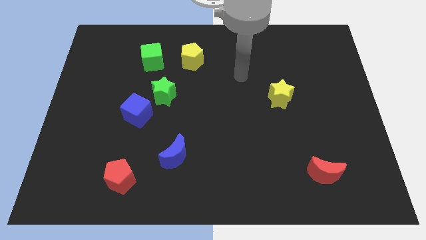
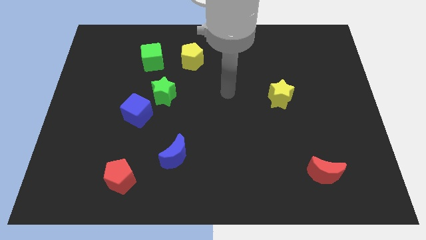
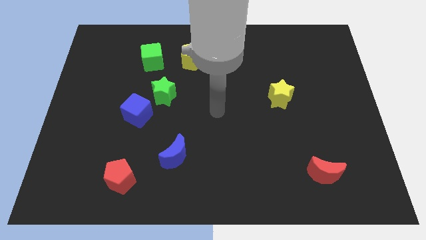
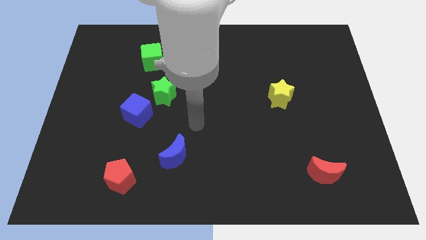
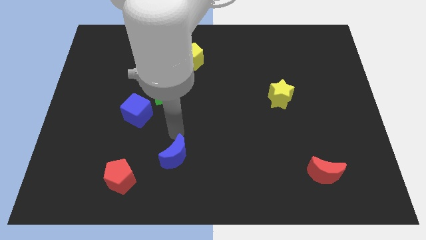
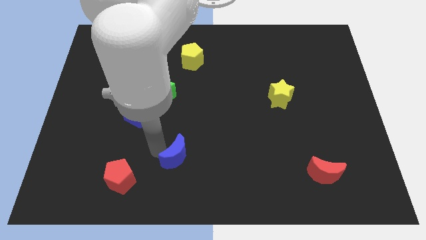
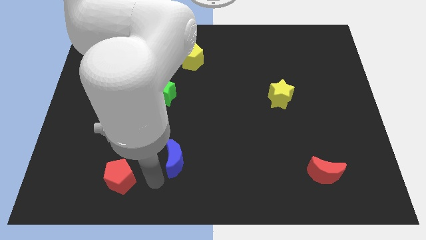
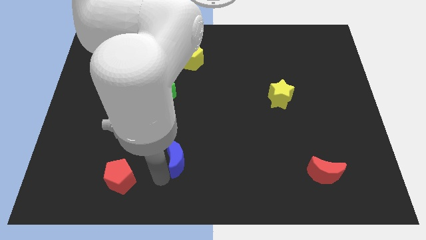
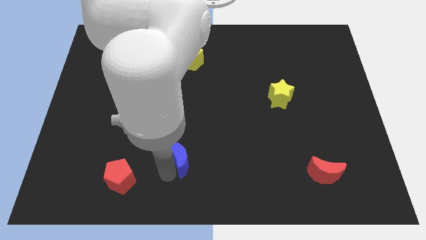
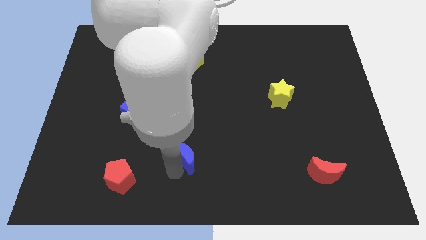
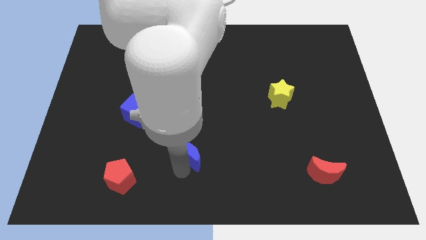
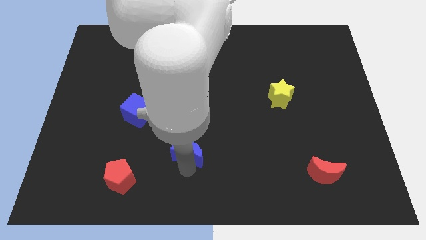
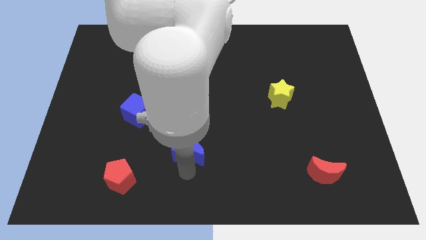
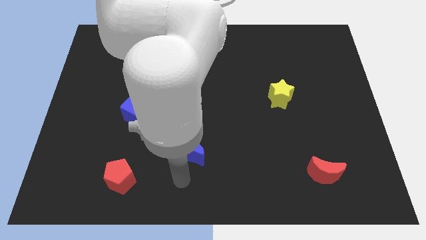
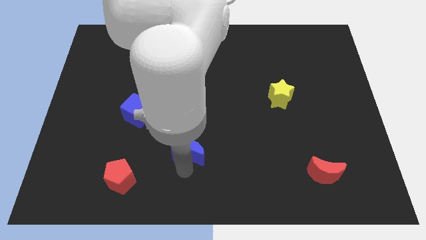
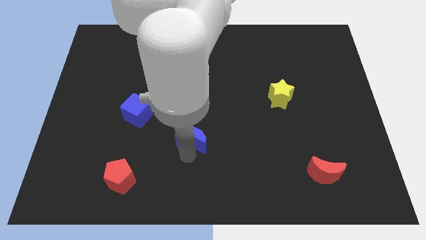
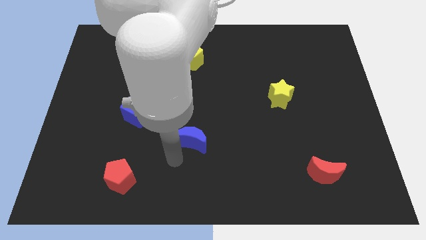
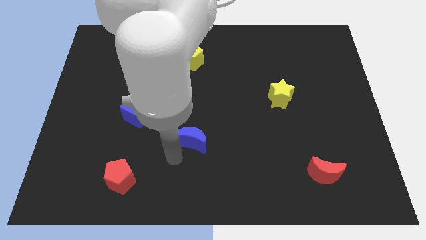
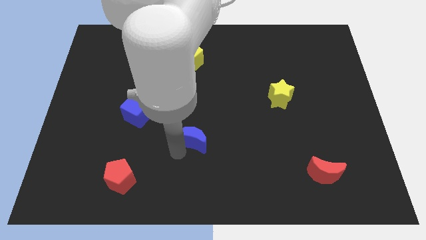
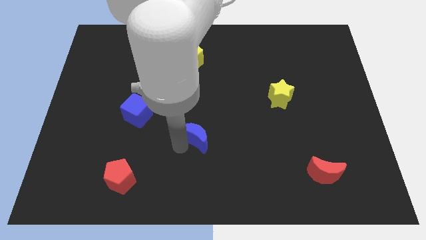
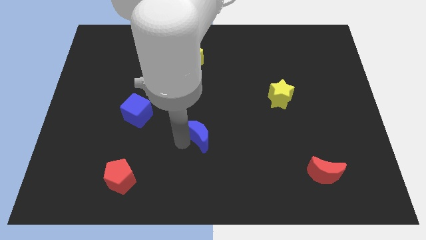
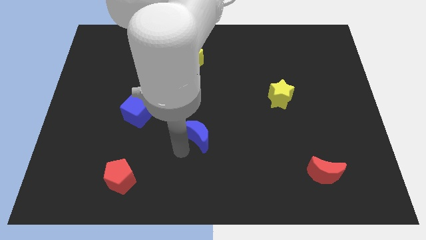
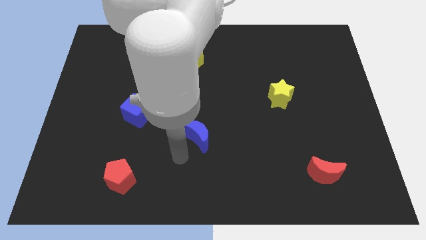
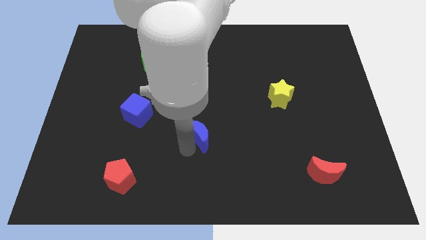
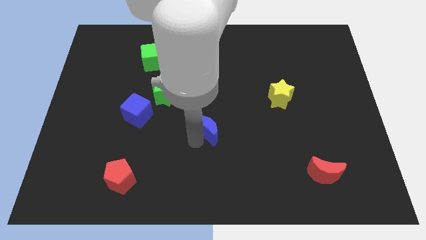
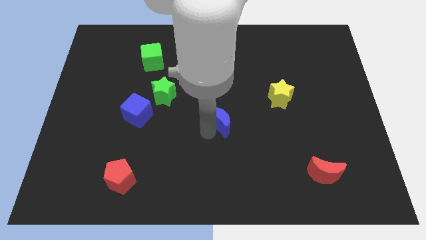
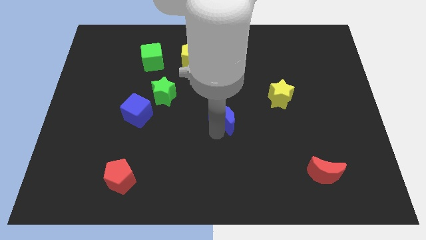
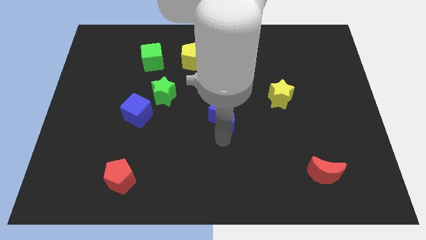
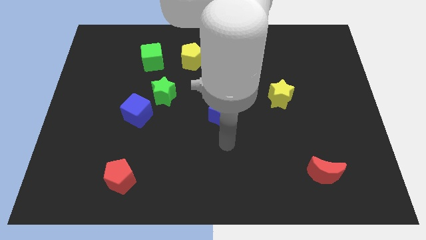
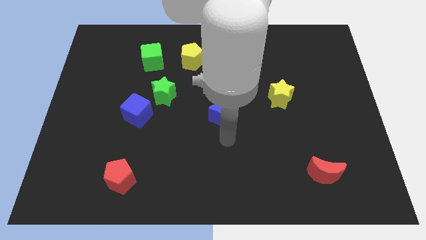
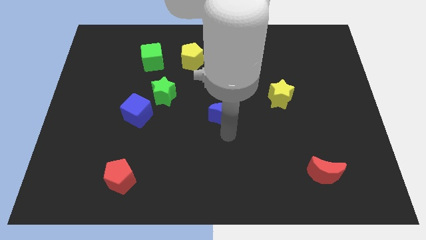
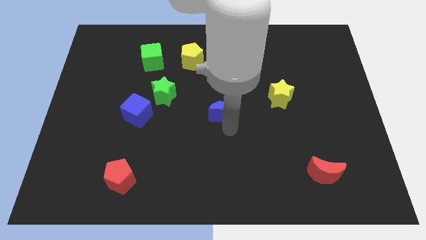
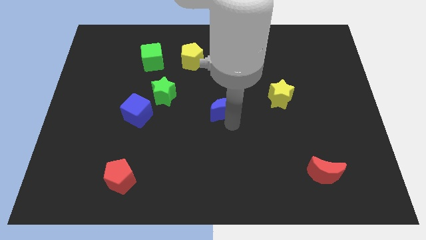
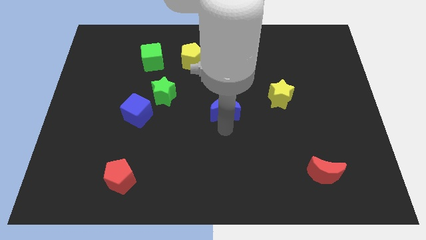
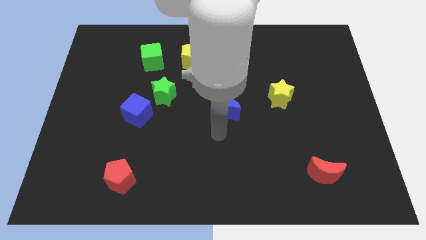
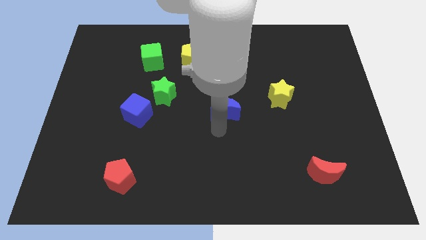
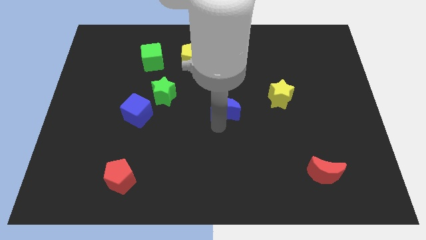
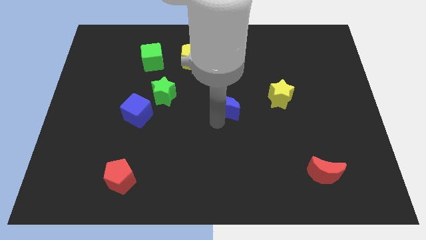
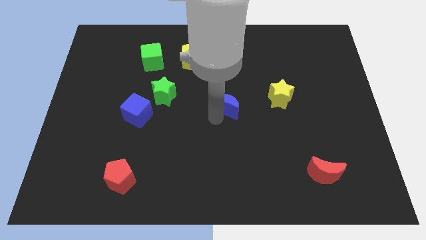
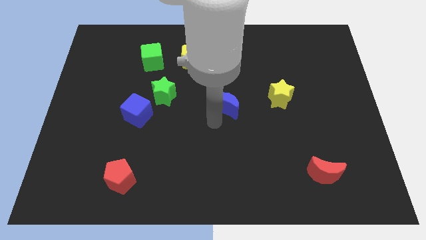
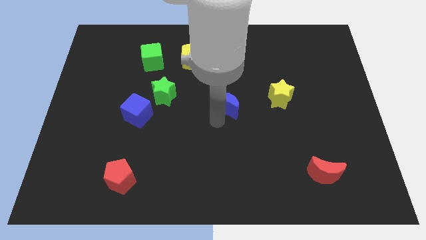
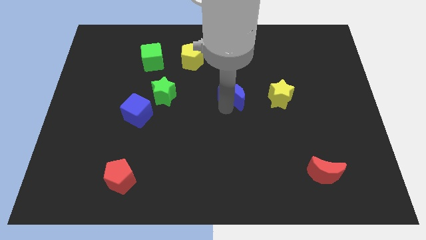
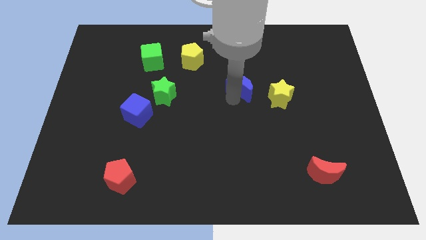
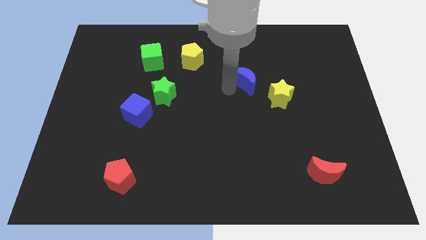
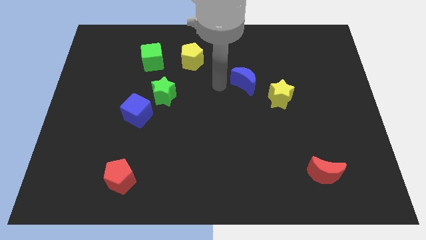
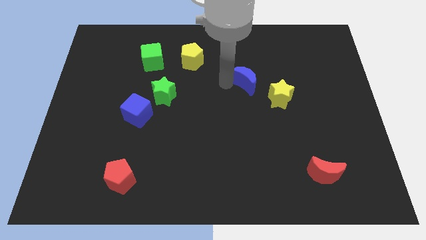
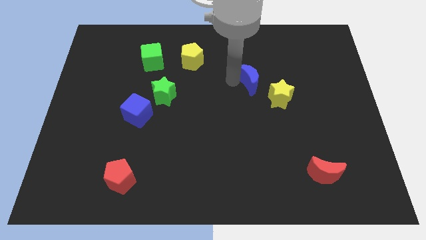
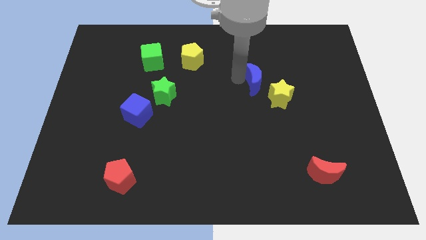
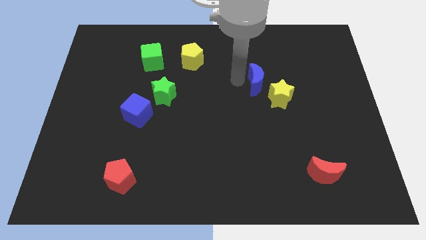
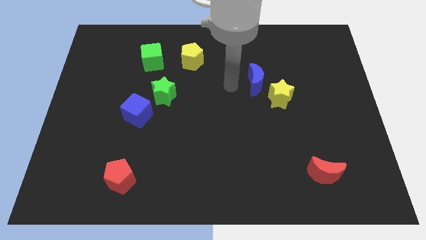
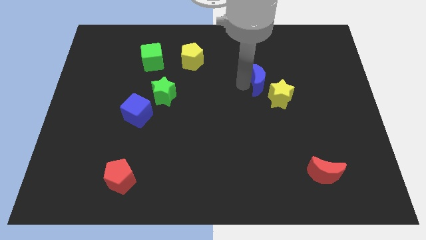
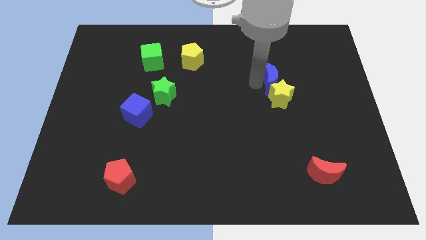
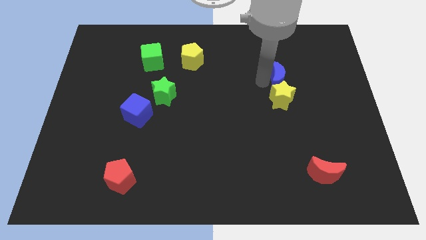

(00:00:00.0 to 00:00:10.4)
move the blue moon to the top right side of the yellow star

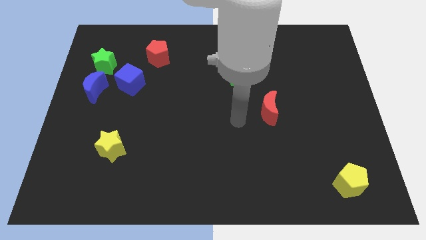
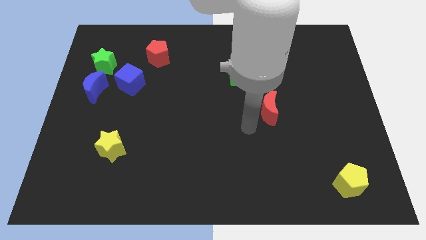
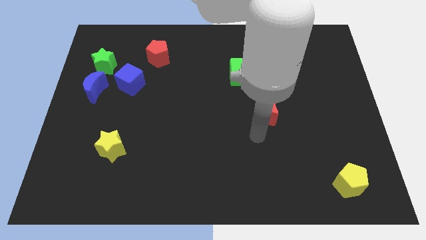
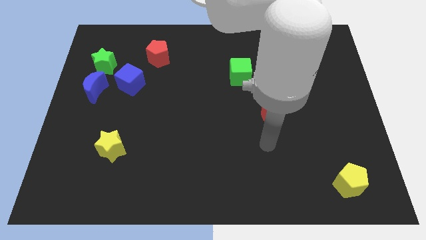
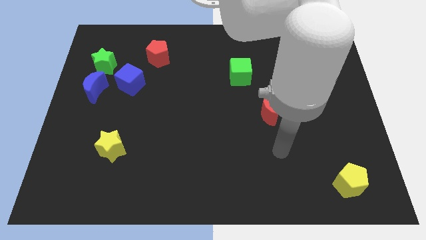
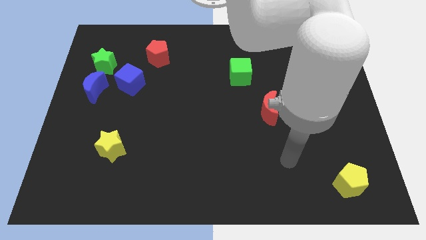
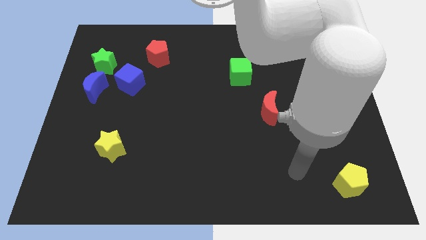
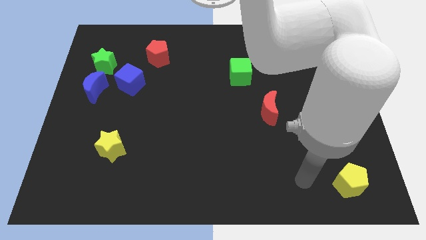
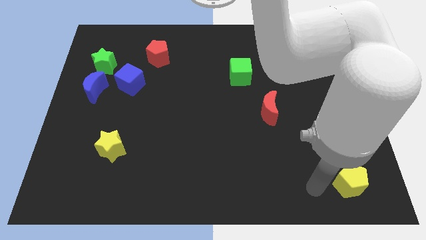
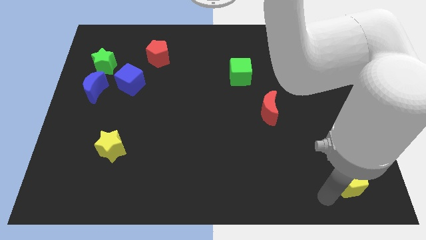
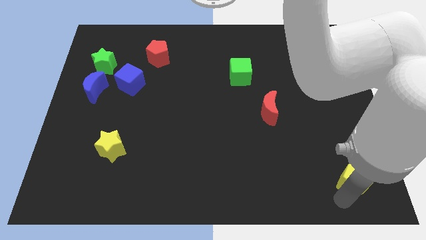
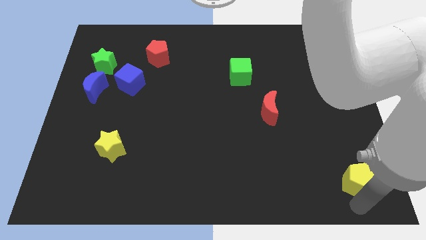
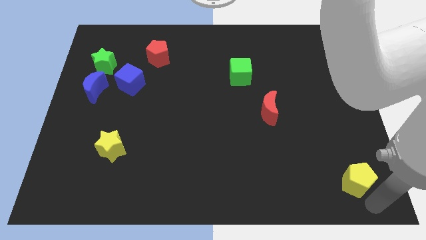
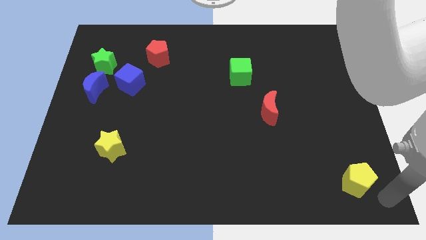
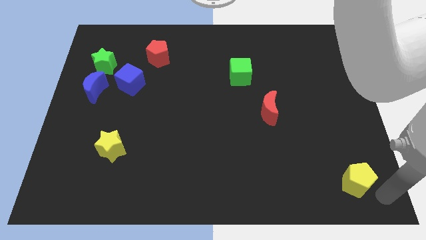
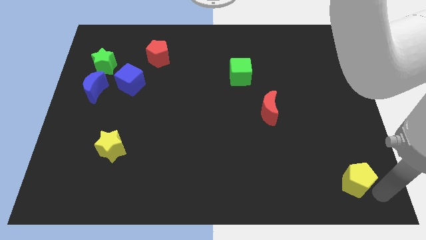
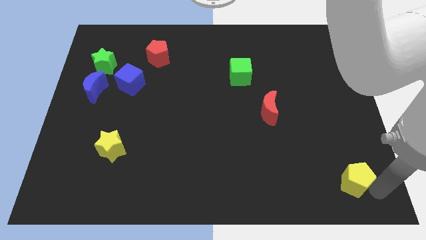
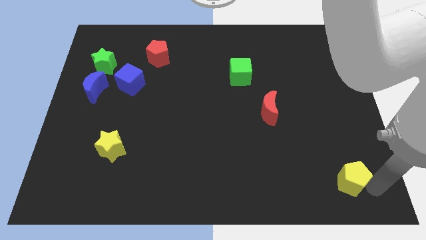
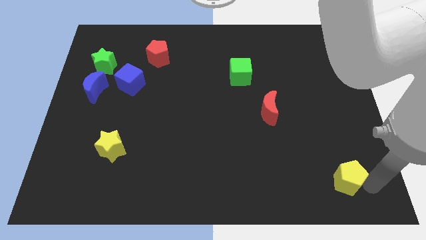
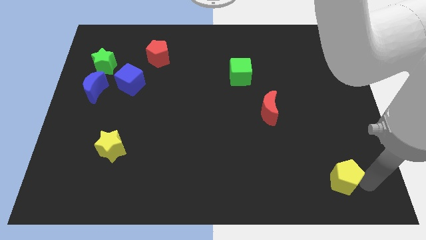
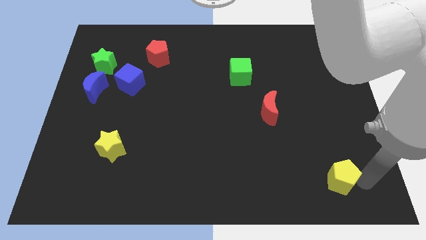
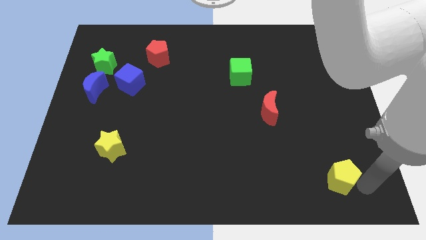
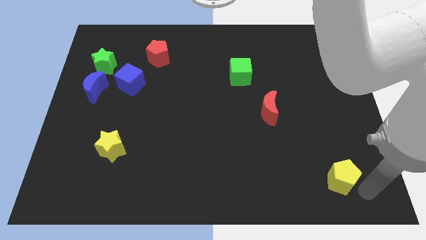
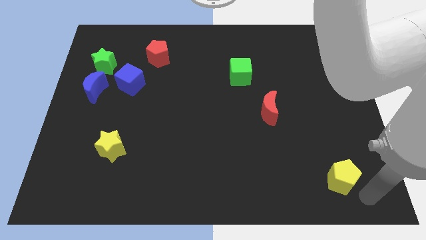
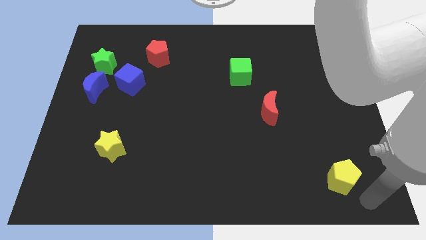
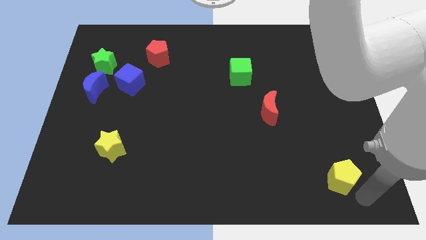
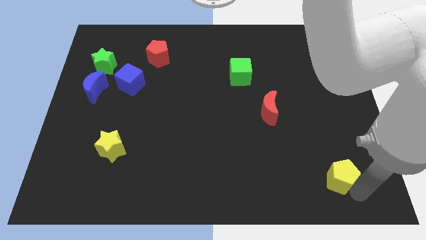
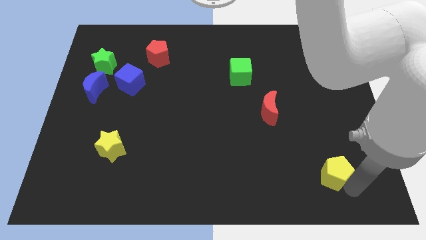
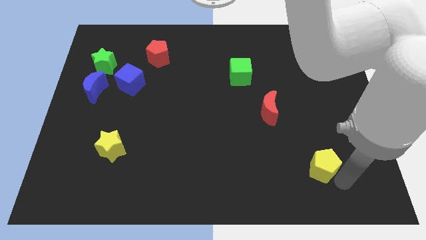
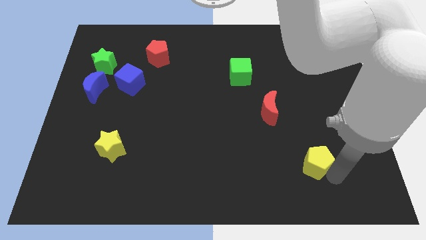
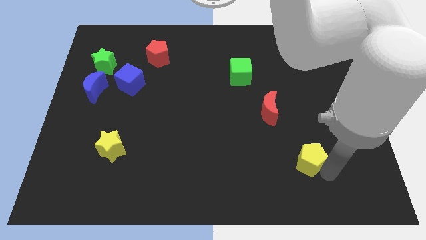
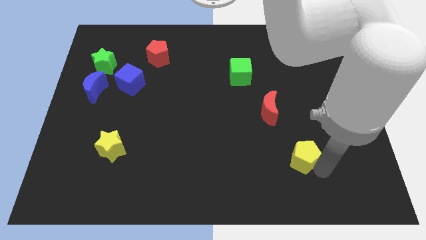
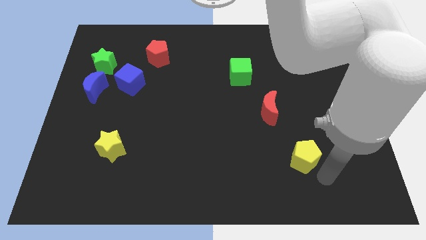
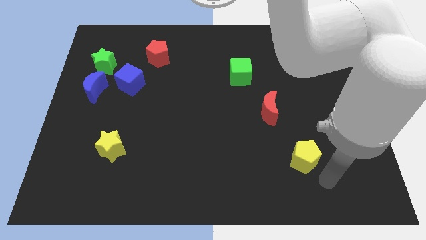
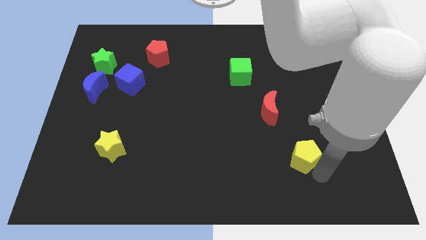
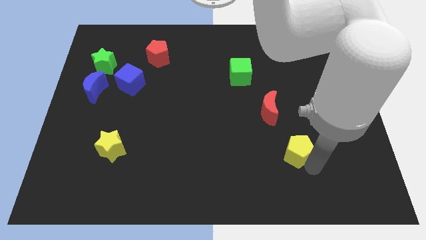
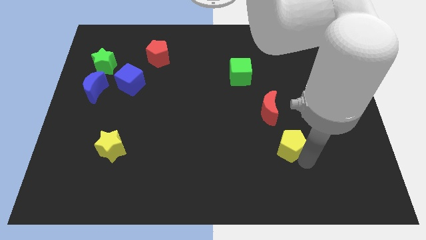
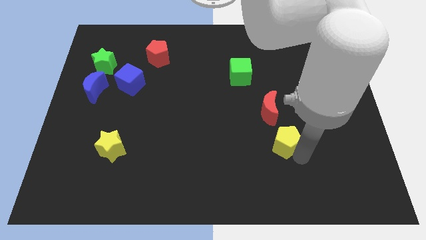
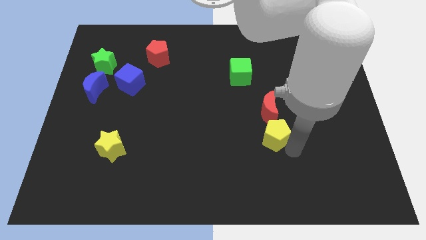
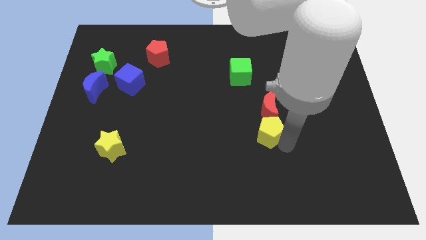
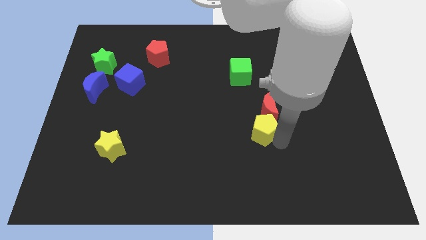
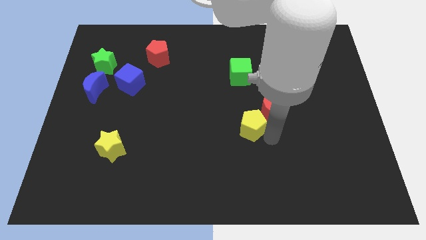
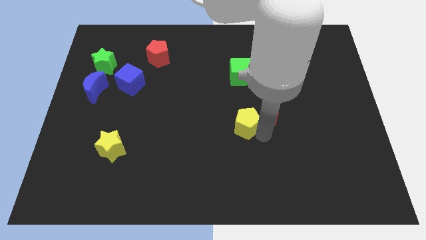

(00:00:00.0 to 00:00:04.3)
slide the yellow pentagon to the bottom of the green cube
